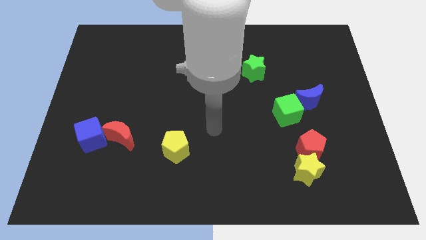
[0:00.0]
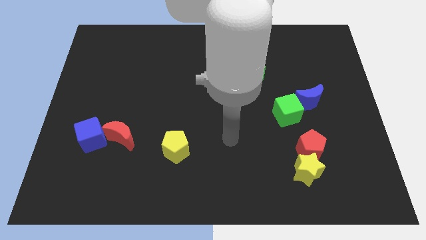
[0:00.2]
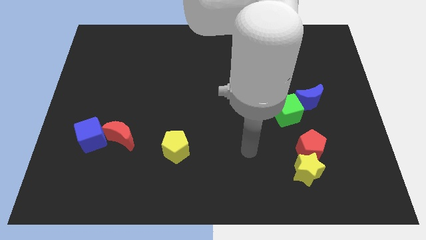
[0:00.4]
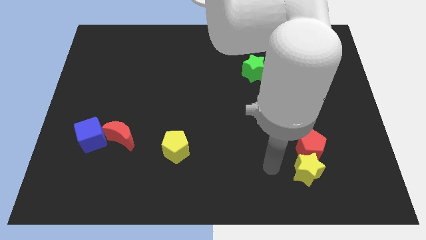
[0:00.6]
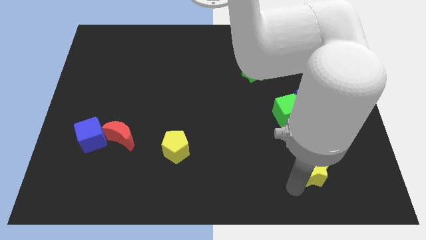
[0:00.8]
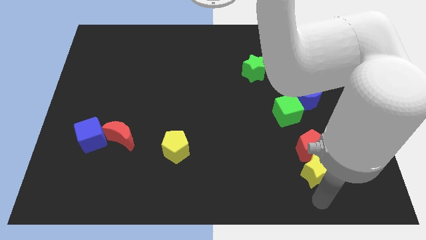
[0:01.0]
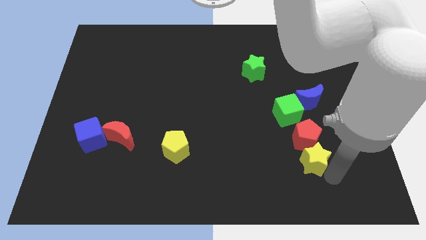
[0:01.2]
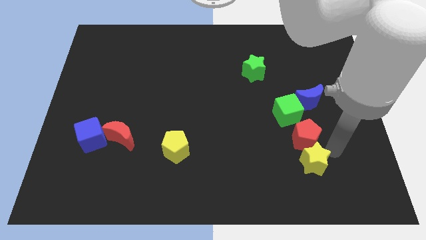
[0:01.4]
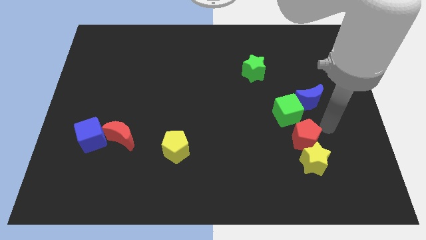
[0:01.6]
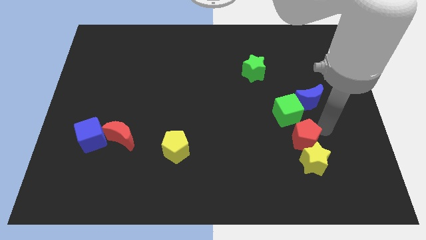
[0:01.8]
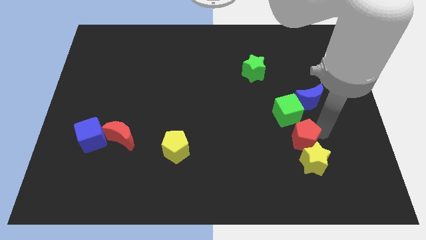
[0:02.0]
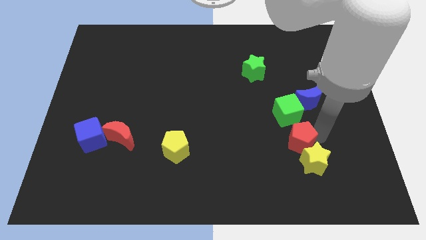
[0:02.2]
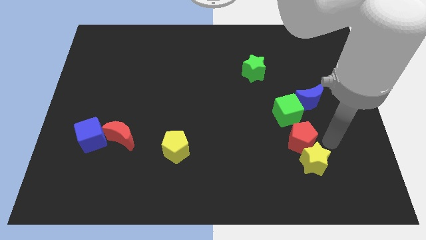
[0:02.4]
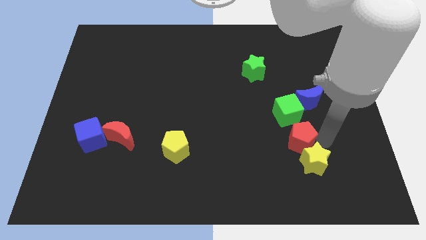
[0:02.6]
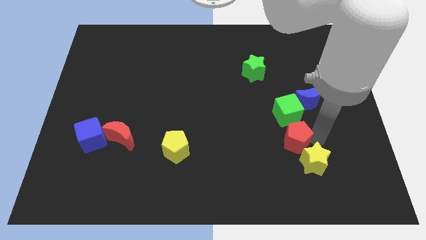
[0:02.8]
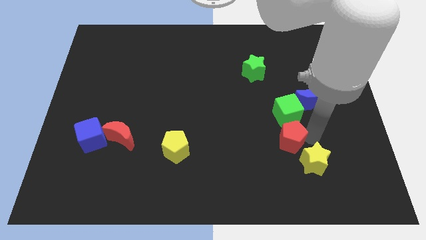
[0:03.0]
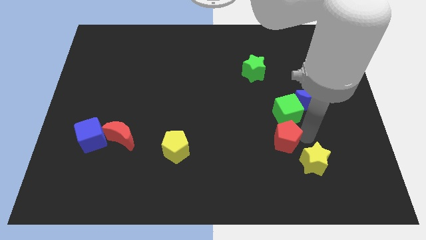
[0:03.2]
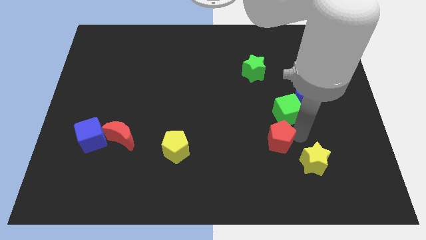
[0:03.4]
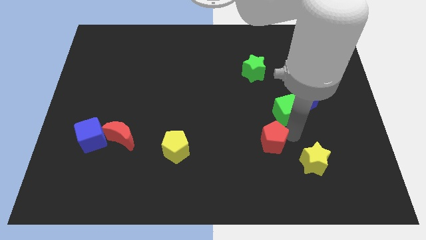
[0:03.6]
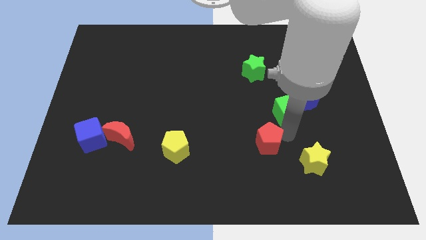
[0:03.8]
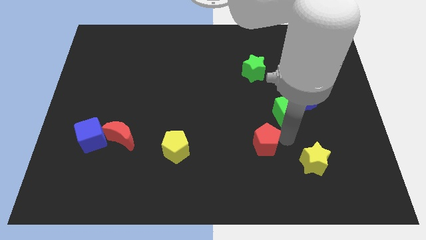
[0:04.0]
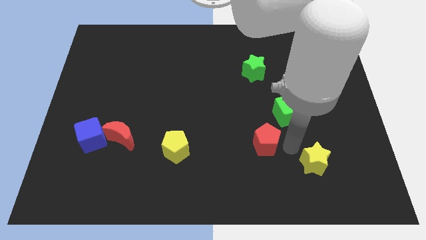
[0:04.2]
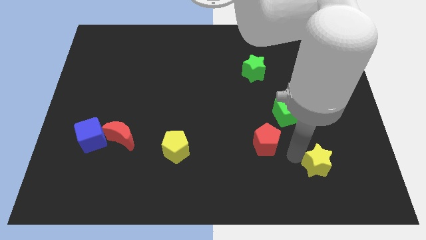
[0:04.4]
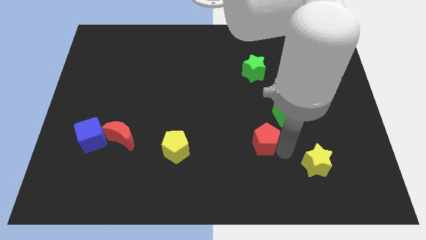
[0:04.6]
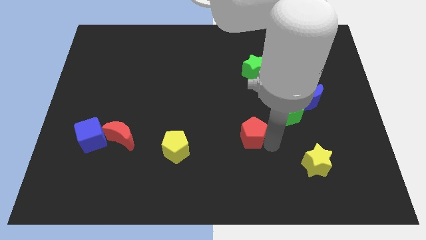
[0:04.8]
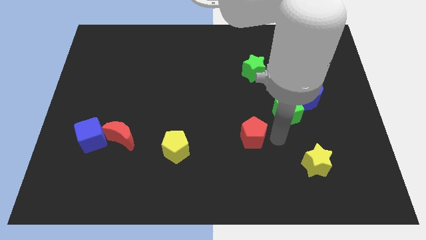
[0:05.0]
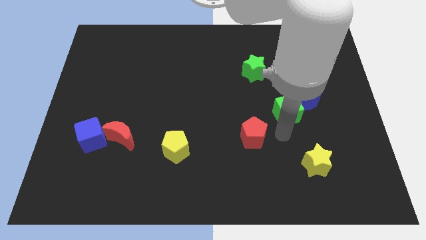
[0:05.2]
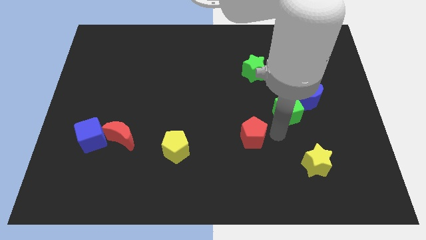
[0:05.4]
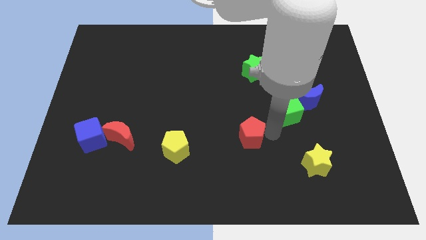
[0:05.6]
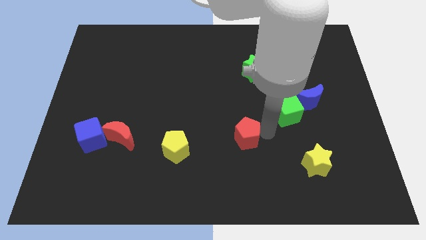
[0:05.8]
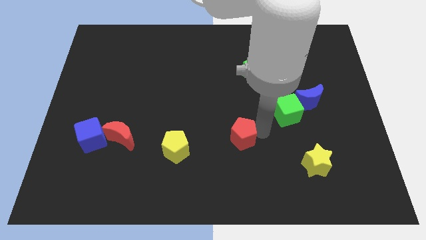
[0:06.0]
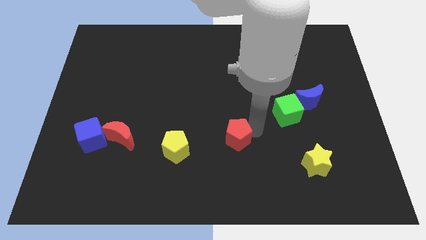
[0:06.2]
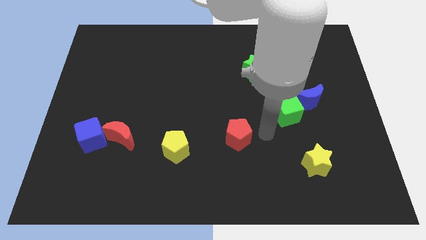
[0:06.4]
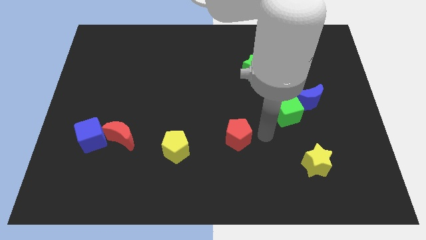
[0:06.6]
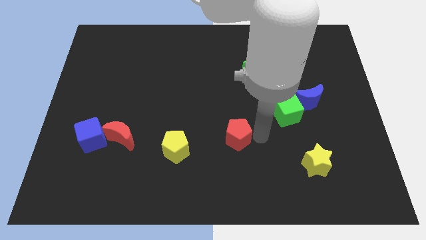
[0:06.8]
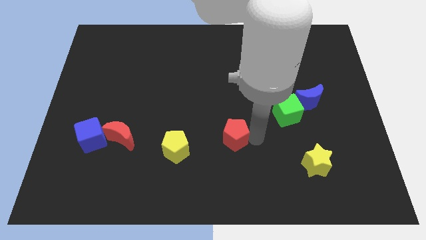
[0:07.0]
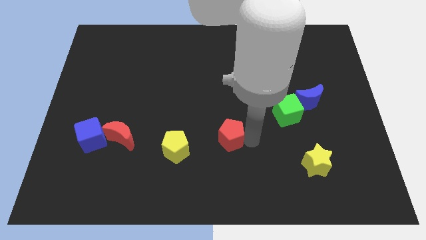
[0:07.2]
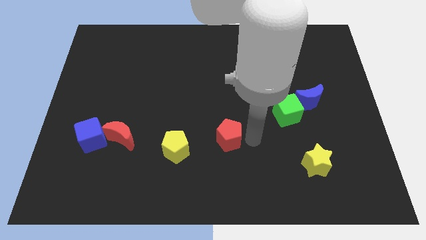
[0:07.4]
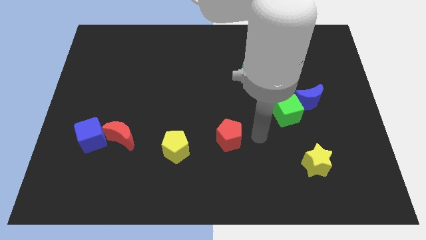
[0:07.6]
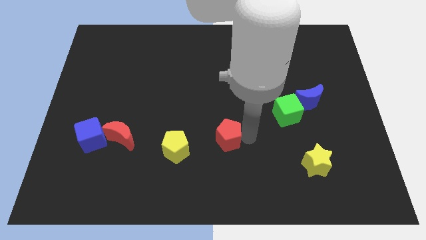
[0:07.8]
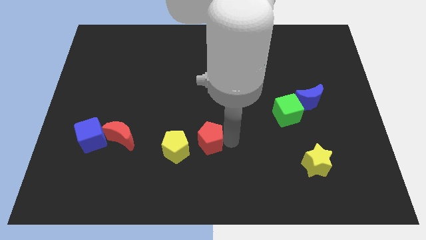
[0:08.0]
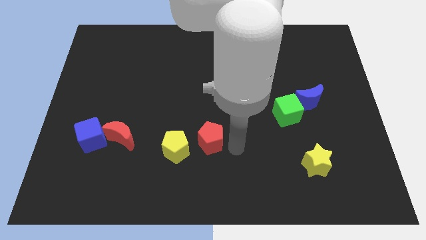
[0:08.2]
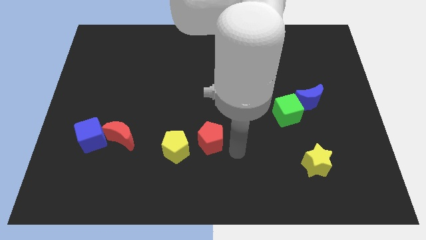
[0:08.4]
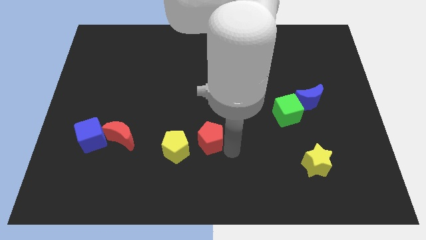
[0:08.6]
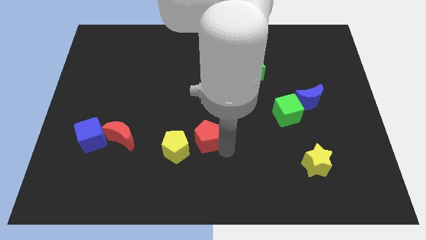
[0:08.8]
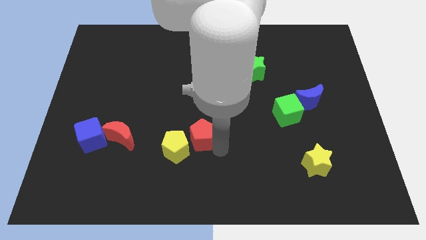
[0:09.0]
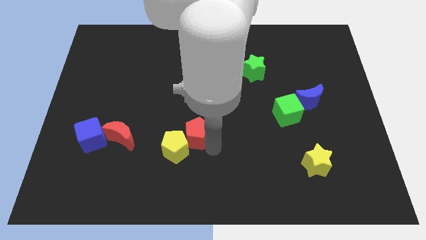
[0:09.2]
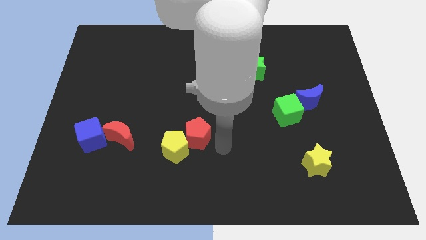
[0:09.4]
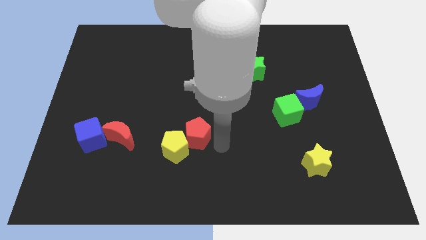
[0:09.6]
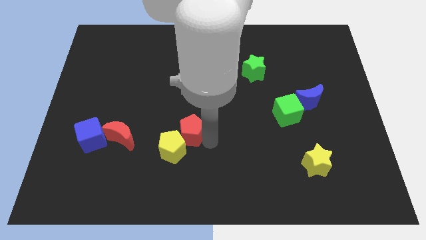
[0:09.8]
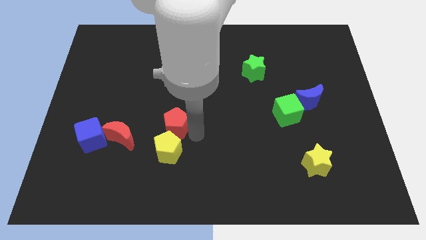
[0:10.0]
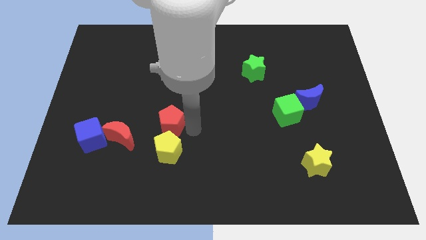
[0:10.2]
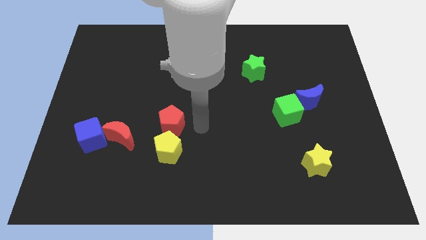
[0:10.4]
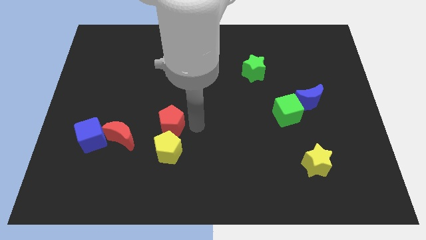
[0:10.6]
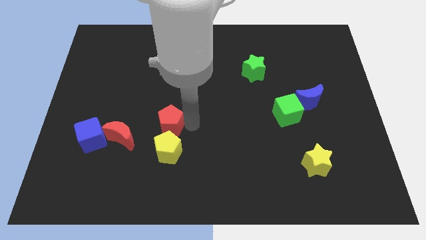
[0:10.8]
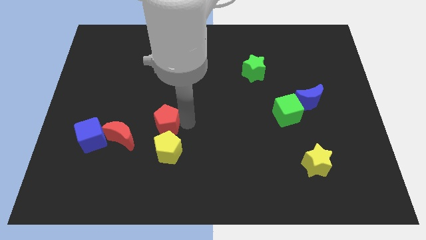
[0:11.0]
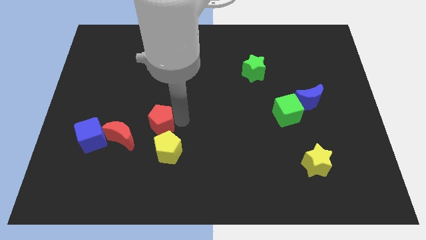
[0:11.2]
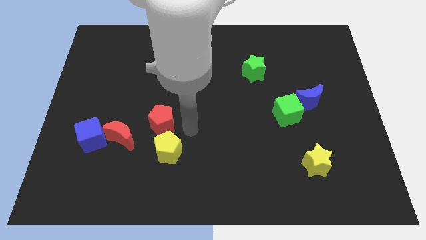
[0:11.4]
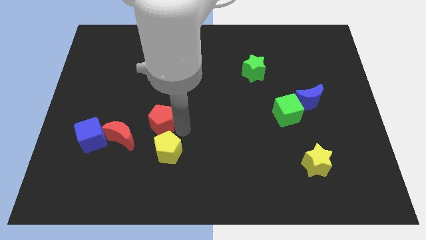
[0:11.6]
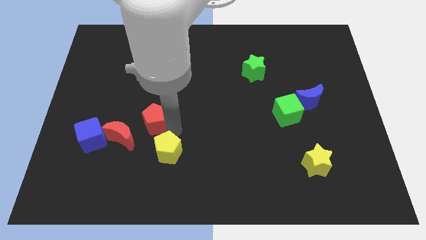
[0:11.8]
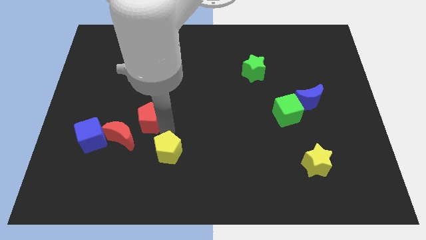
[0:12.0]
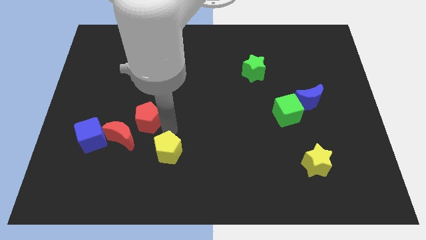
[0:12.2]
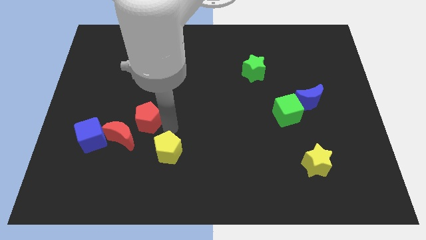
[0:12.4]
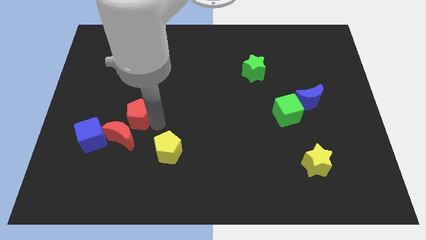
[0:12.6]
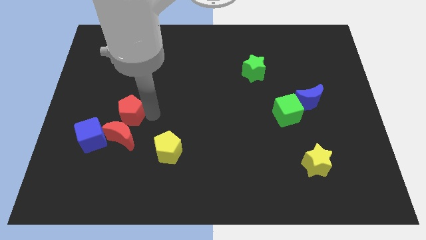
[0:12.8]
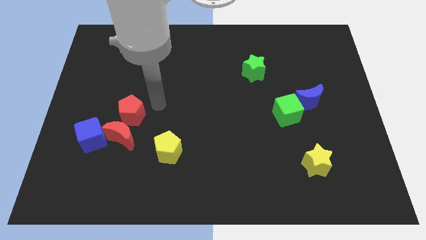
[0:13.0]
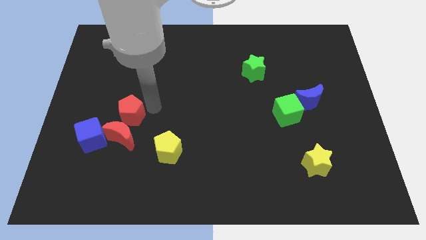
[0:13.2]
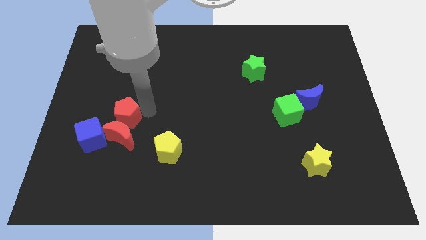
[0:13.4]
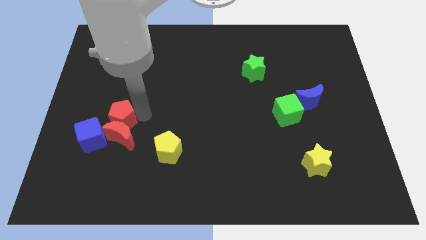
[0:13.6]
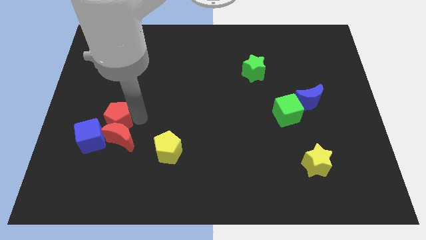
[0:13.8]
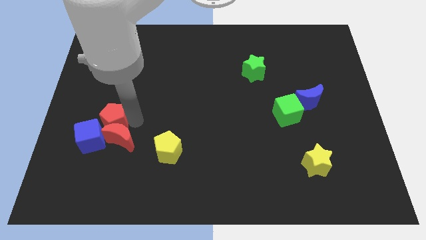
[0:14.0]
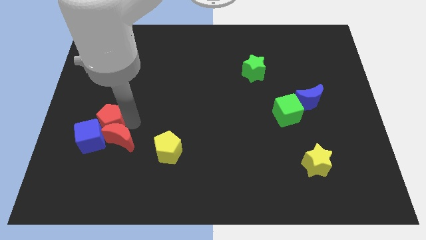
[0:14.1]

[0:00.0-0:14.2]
put the red pentagon to the blue cube

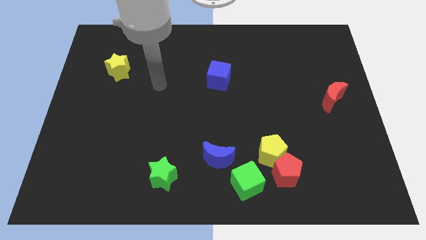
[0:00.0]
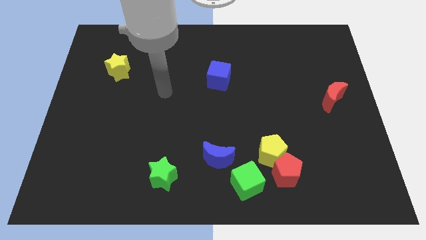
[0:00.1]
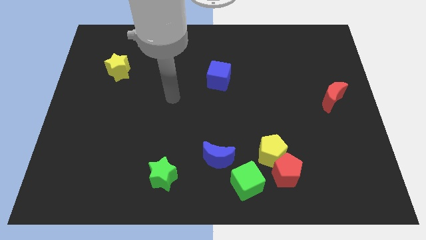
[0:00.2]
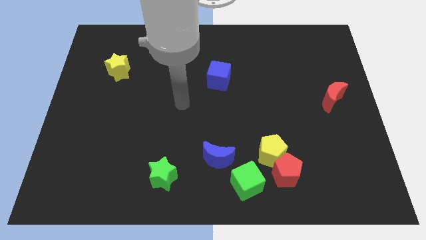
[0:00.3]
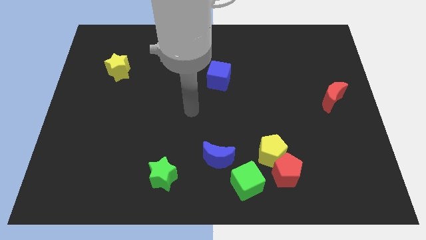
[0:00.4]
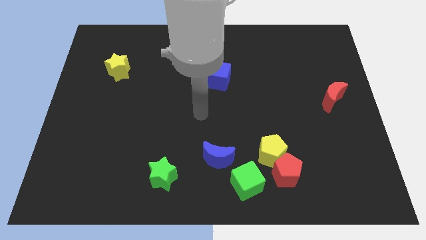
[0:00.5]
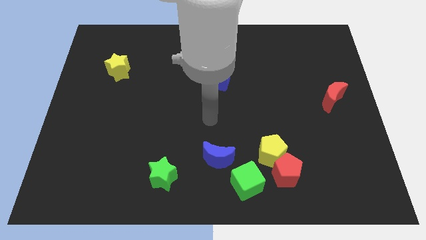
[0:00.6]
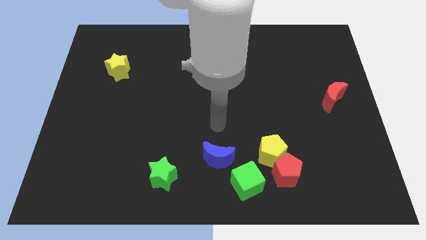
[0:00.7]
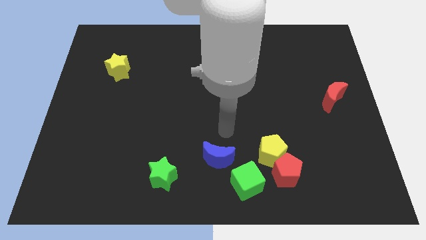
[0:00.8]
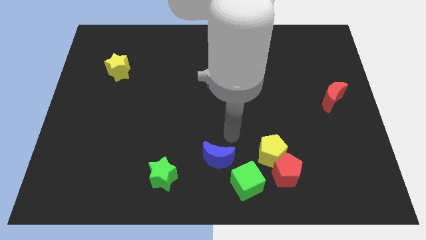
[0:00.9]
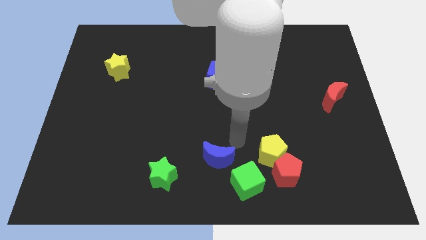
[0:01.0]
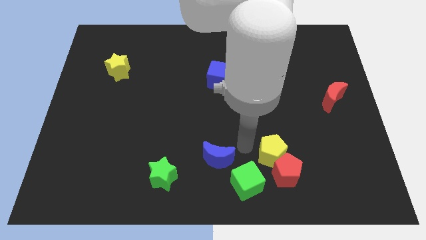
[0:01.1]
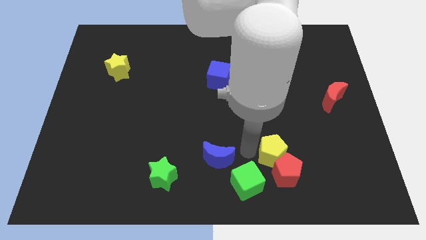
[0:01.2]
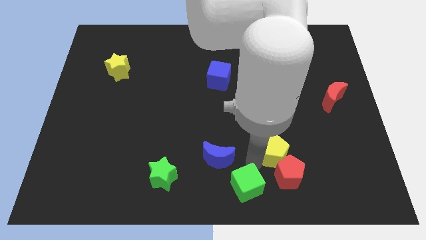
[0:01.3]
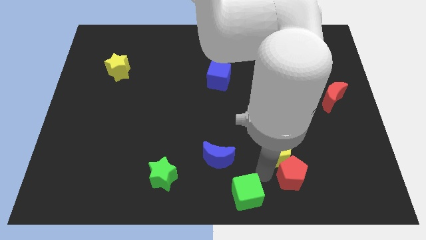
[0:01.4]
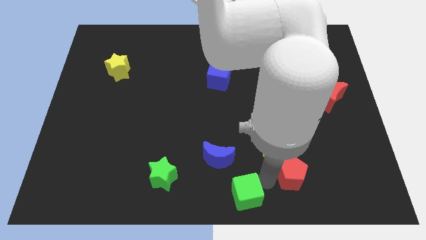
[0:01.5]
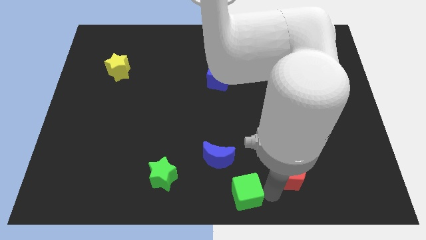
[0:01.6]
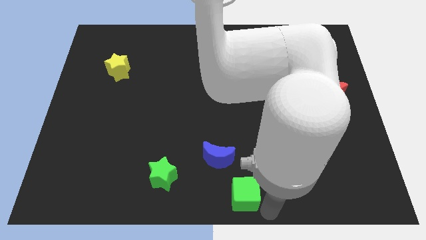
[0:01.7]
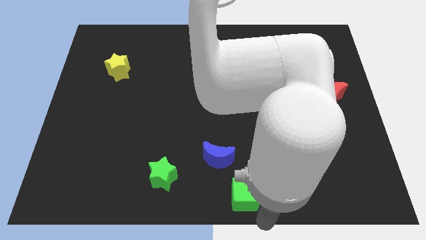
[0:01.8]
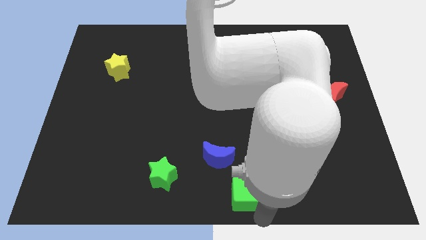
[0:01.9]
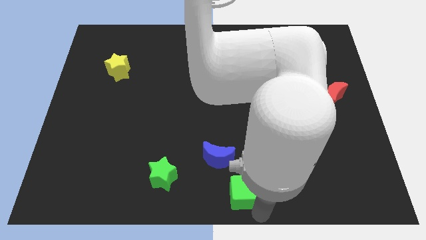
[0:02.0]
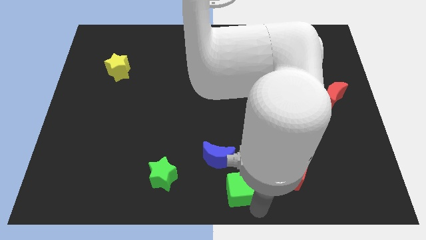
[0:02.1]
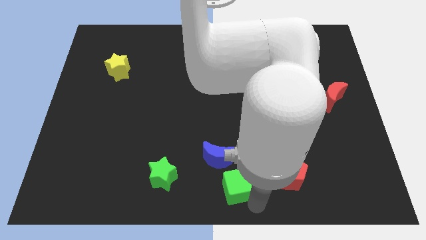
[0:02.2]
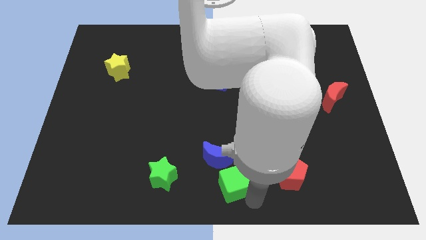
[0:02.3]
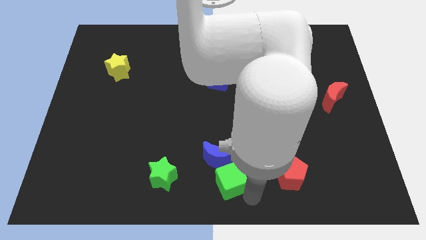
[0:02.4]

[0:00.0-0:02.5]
move the green cube next to the blue moon
